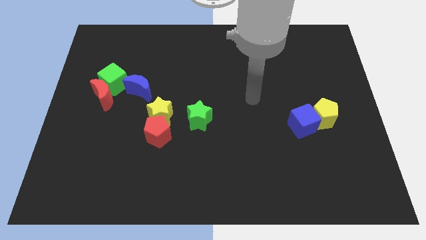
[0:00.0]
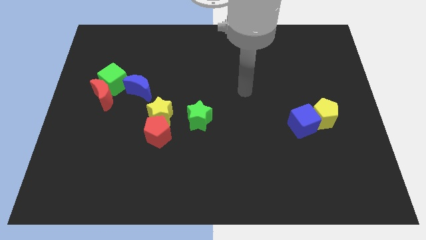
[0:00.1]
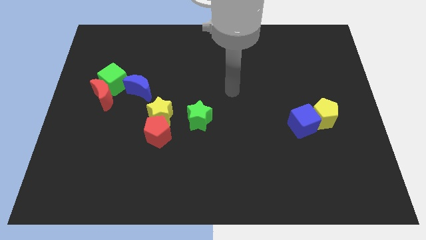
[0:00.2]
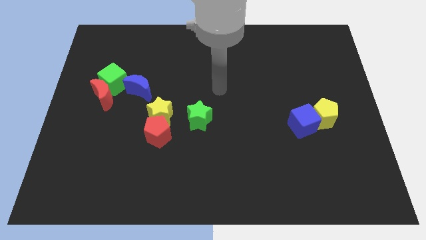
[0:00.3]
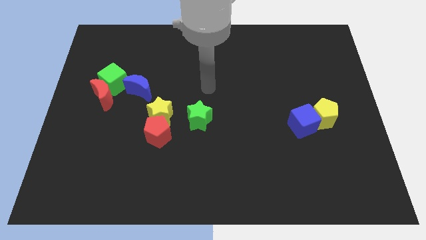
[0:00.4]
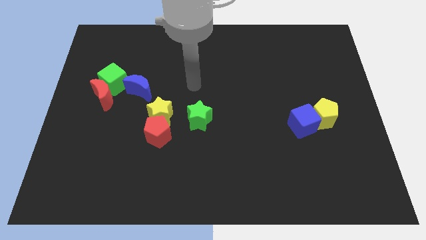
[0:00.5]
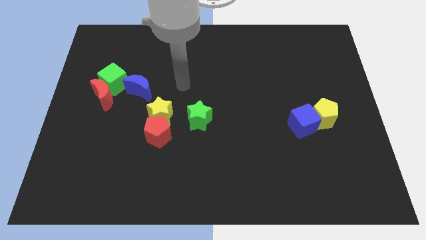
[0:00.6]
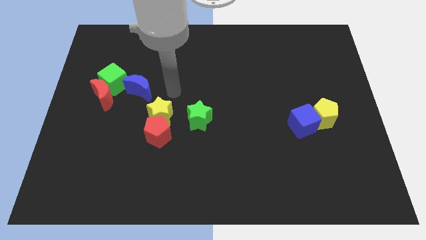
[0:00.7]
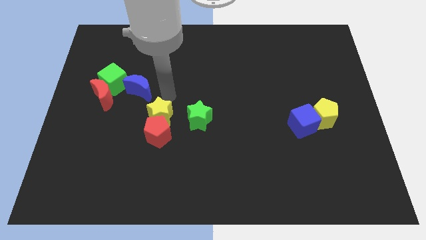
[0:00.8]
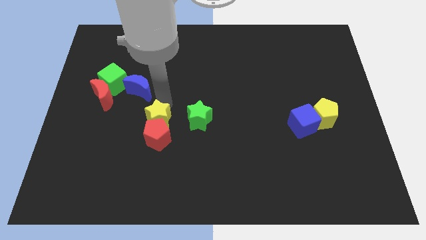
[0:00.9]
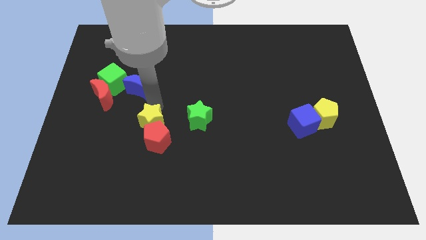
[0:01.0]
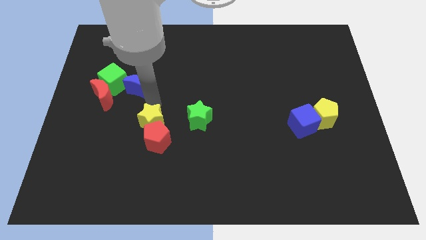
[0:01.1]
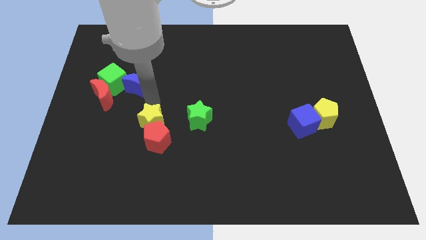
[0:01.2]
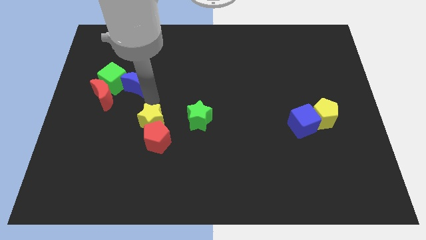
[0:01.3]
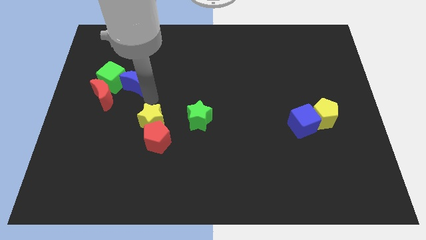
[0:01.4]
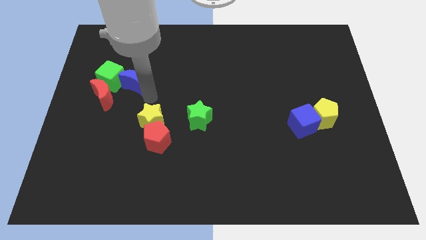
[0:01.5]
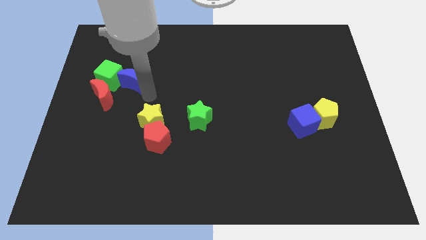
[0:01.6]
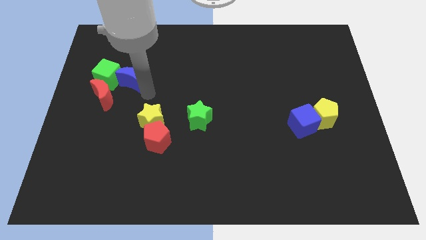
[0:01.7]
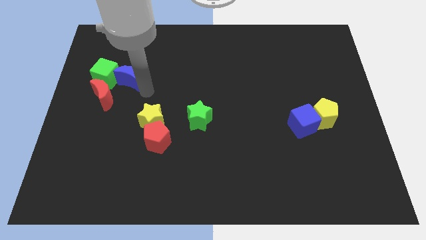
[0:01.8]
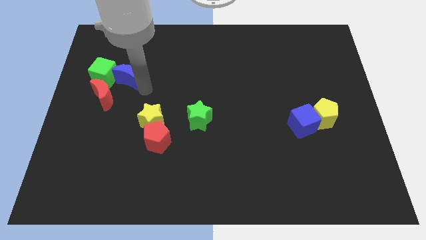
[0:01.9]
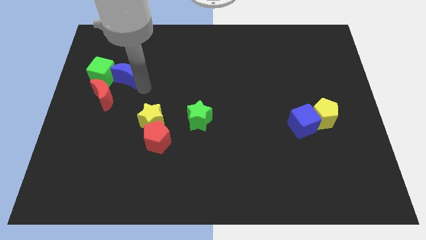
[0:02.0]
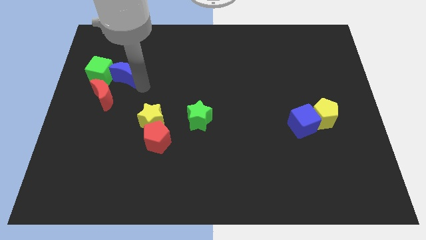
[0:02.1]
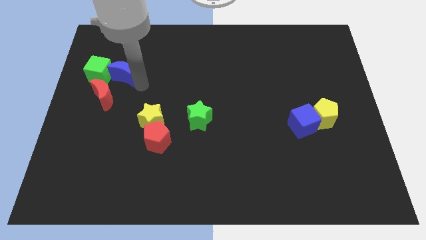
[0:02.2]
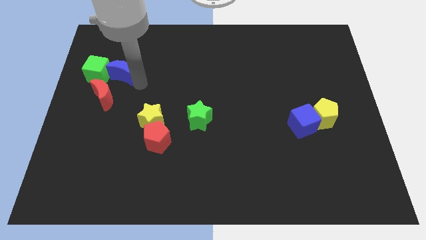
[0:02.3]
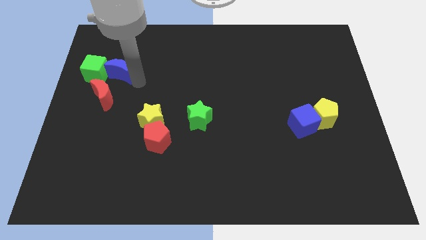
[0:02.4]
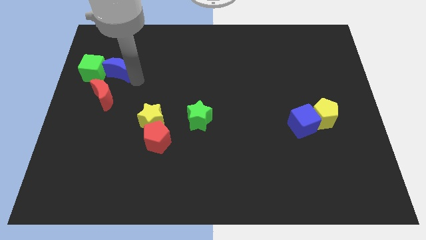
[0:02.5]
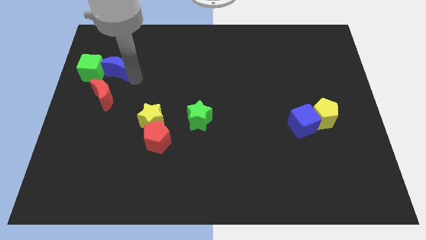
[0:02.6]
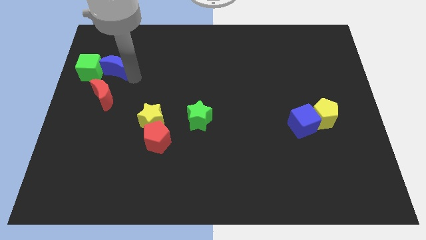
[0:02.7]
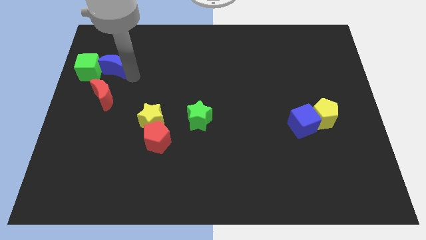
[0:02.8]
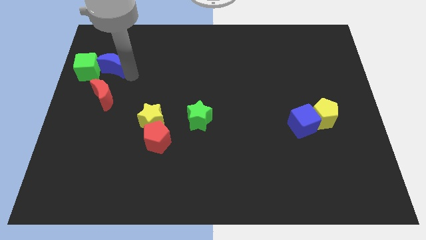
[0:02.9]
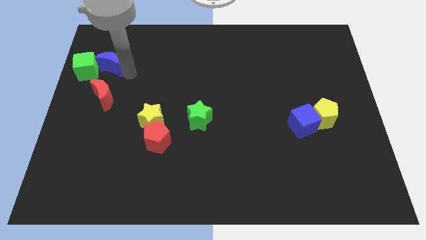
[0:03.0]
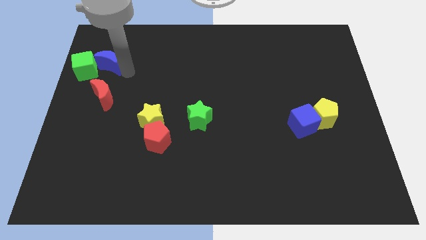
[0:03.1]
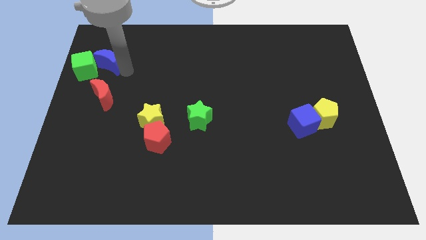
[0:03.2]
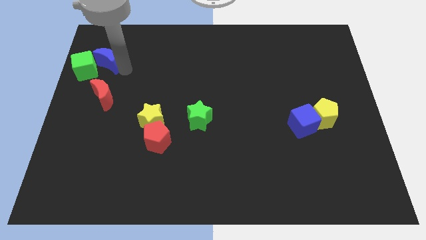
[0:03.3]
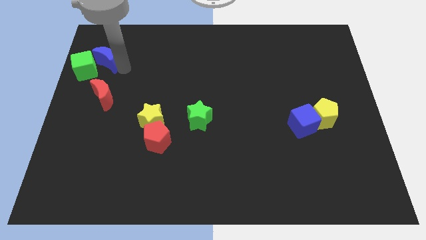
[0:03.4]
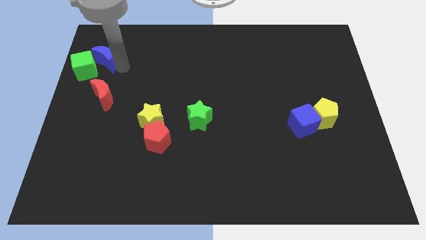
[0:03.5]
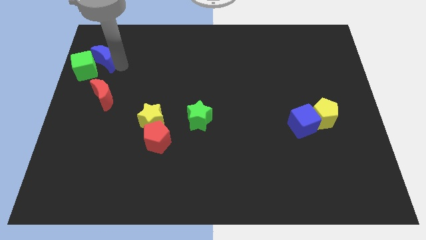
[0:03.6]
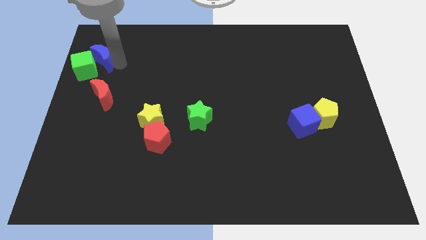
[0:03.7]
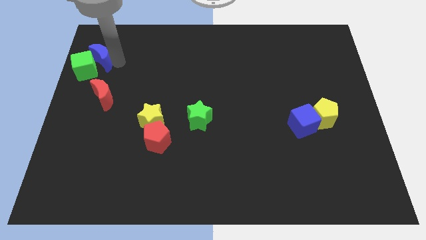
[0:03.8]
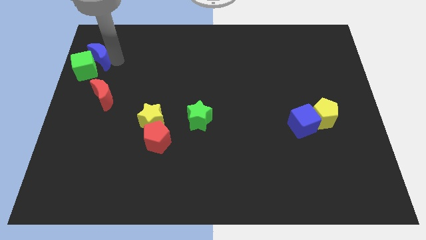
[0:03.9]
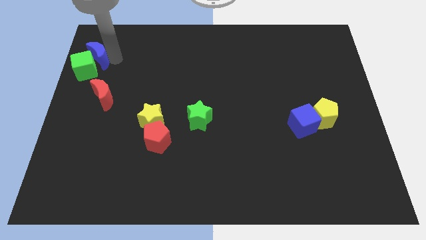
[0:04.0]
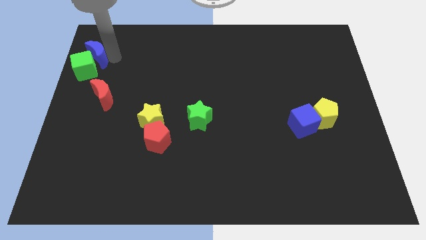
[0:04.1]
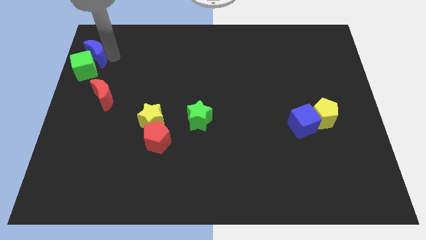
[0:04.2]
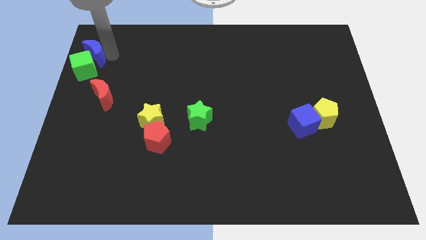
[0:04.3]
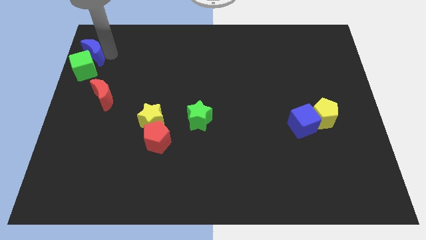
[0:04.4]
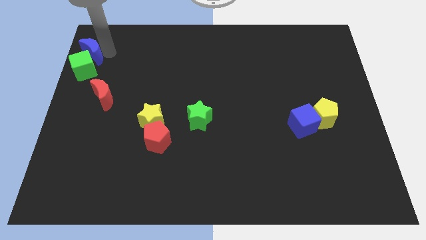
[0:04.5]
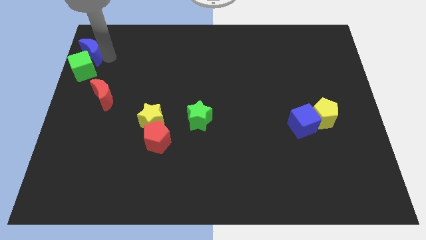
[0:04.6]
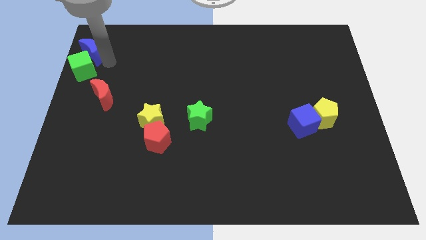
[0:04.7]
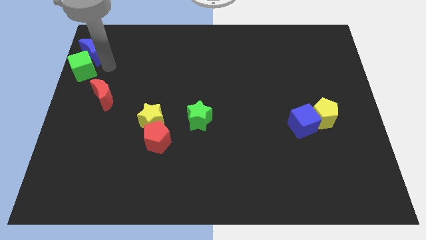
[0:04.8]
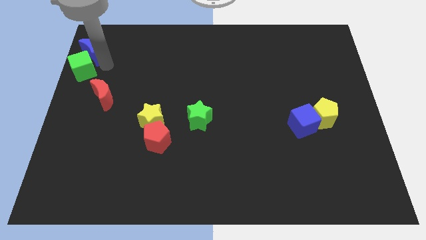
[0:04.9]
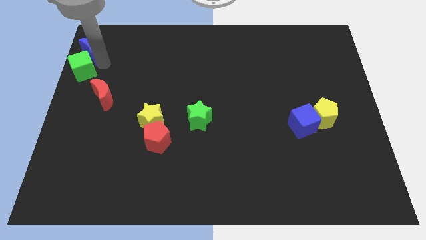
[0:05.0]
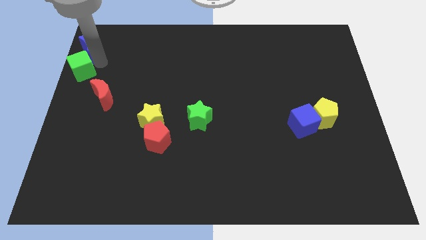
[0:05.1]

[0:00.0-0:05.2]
put the blue moon to the top left

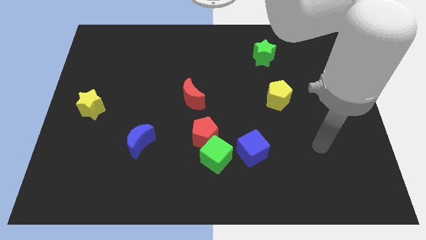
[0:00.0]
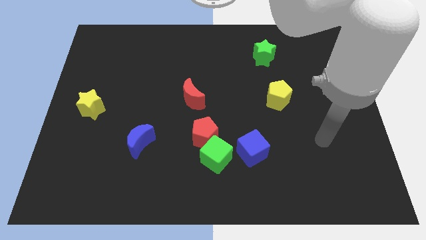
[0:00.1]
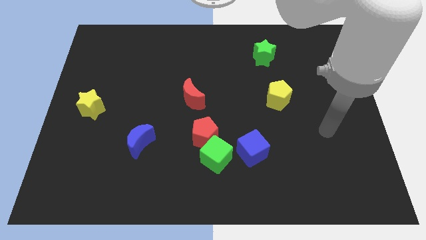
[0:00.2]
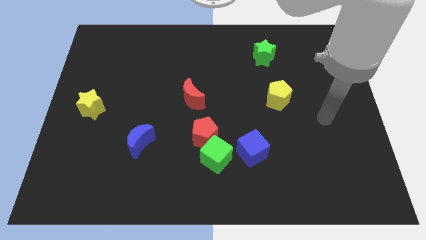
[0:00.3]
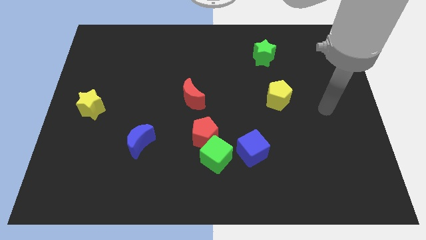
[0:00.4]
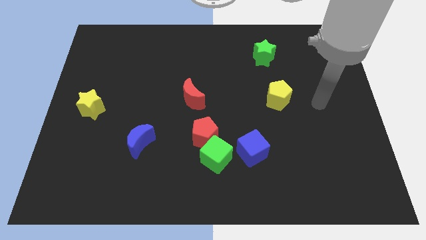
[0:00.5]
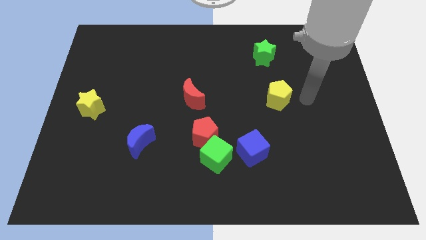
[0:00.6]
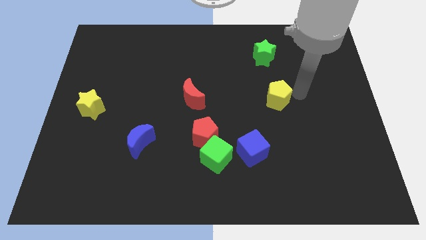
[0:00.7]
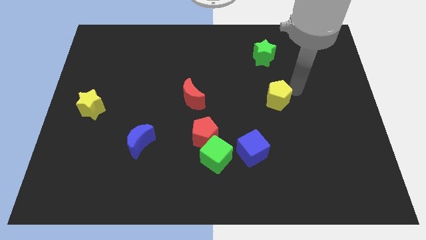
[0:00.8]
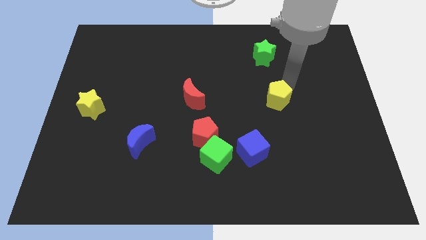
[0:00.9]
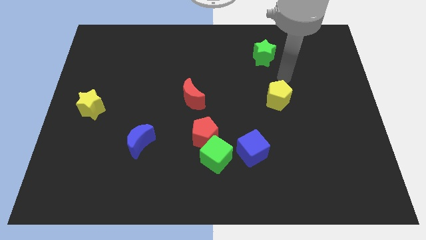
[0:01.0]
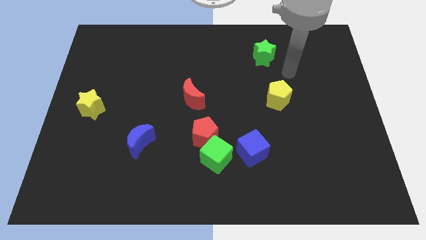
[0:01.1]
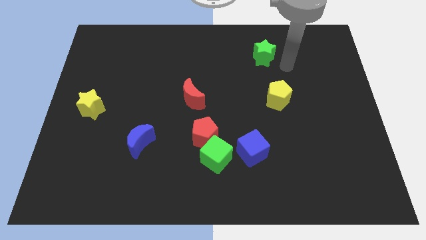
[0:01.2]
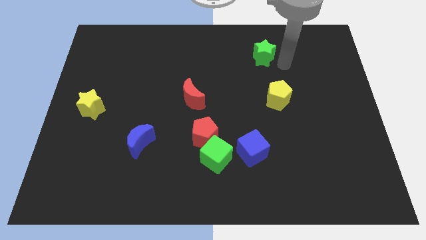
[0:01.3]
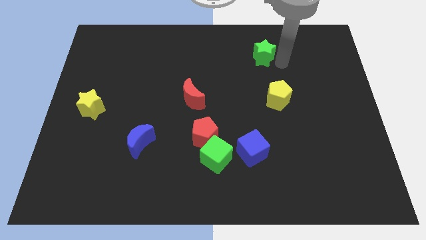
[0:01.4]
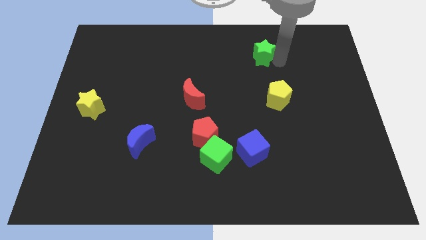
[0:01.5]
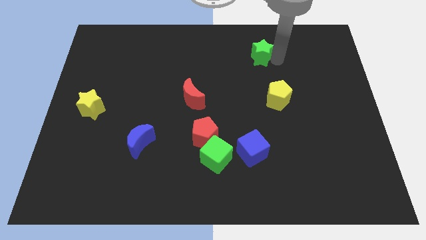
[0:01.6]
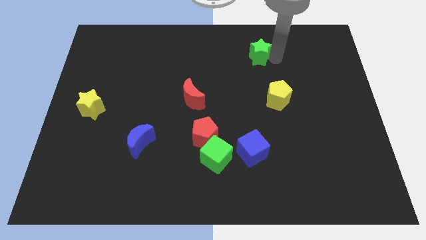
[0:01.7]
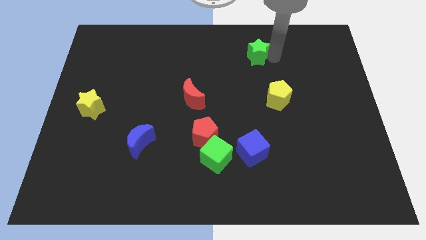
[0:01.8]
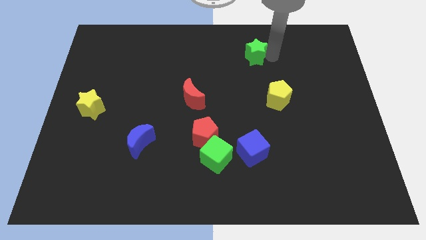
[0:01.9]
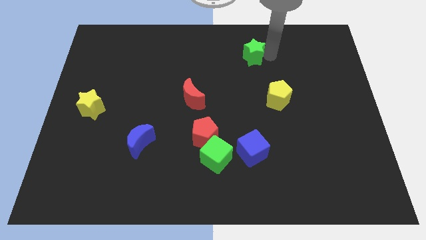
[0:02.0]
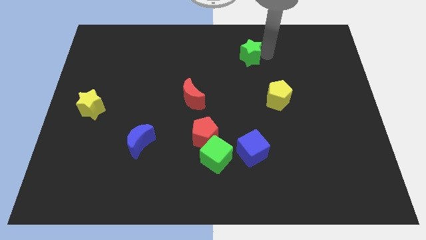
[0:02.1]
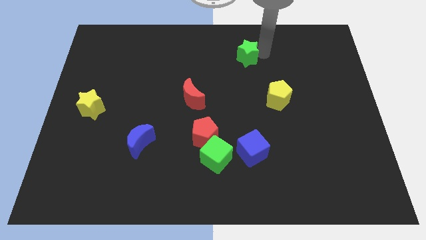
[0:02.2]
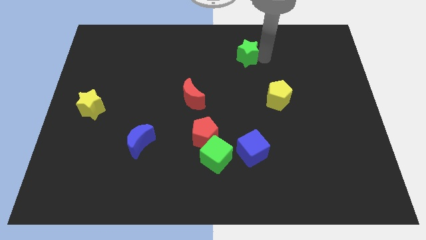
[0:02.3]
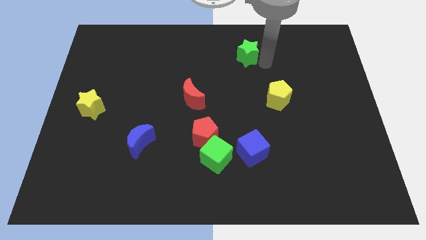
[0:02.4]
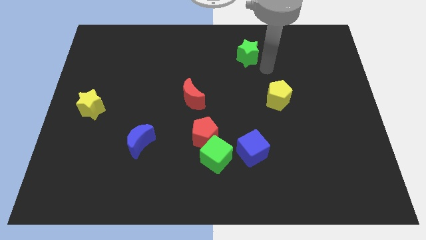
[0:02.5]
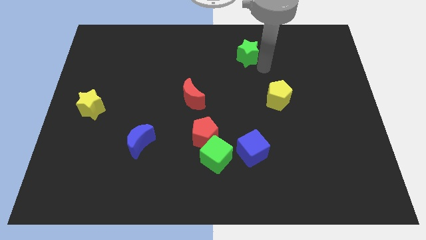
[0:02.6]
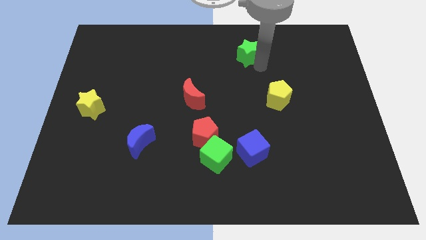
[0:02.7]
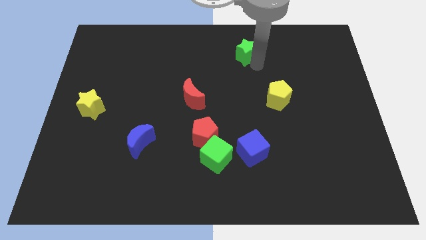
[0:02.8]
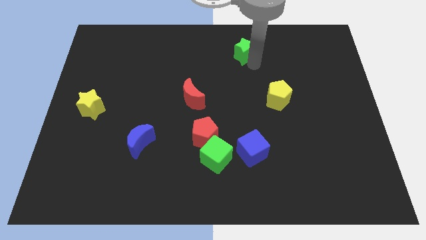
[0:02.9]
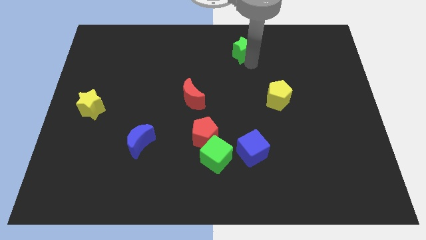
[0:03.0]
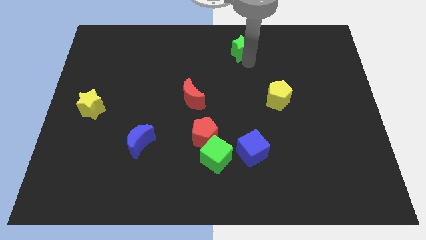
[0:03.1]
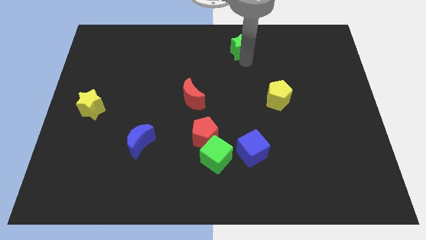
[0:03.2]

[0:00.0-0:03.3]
put the green star to the top
